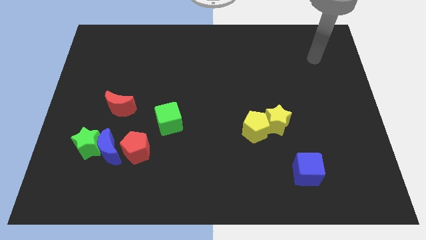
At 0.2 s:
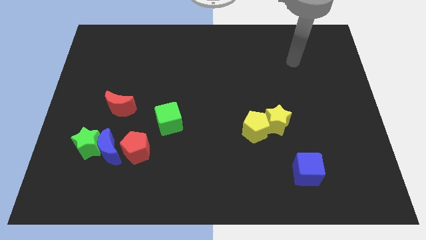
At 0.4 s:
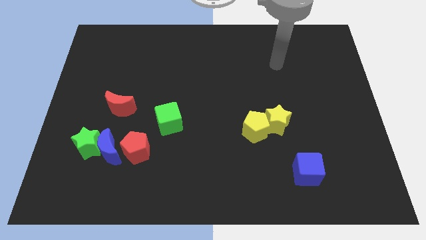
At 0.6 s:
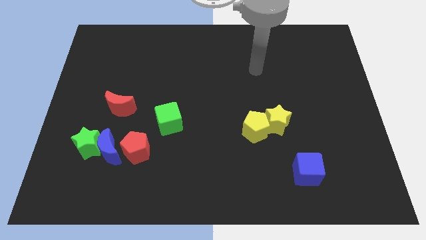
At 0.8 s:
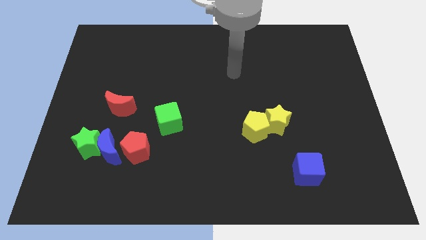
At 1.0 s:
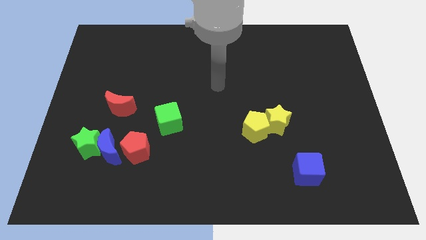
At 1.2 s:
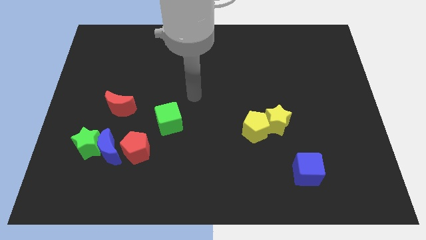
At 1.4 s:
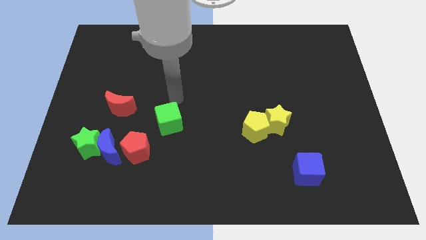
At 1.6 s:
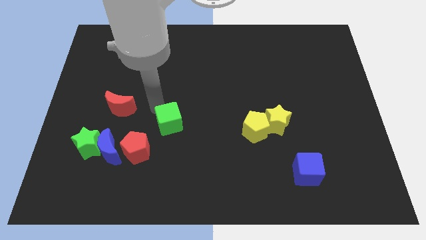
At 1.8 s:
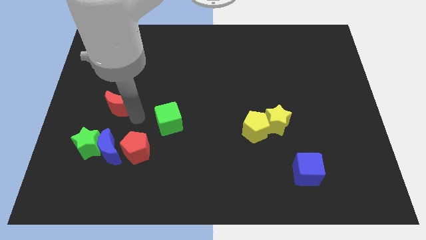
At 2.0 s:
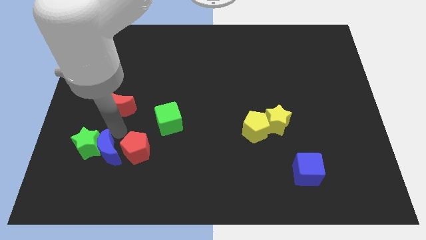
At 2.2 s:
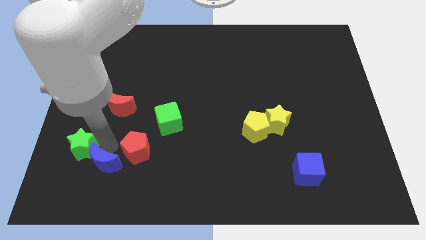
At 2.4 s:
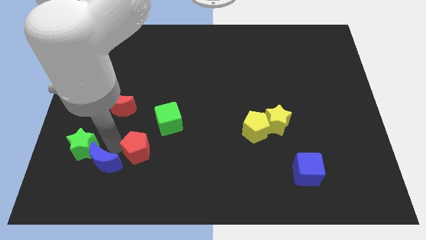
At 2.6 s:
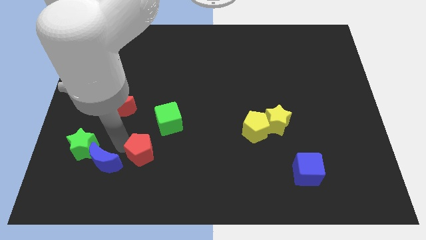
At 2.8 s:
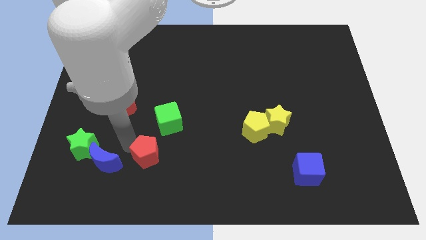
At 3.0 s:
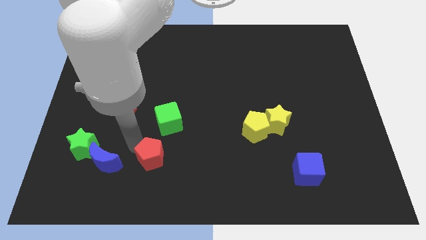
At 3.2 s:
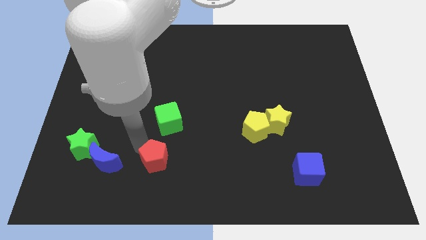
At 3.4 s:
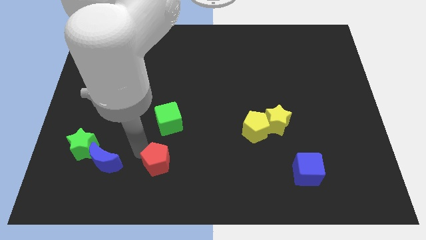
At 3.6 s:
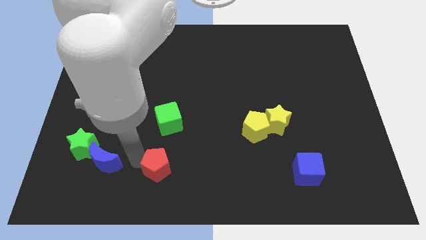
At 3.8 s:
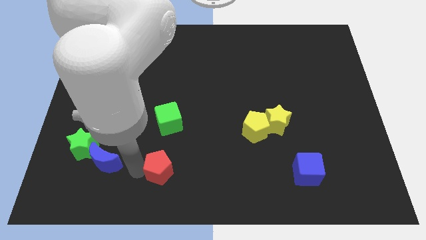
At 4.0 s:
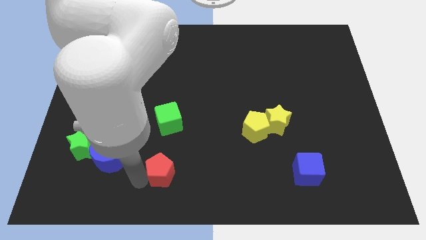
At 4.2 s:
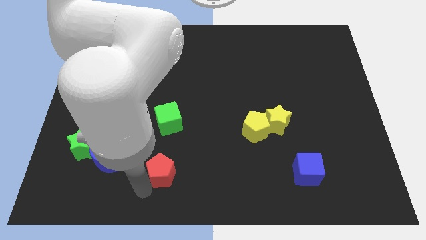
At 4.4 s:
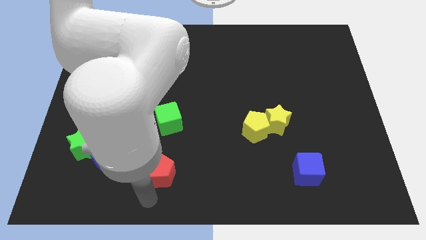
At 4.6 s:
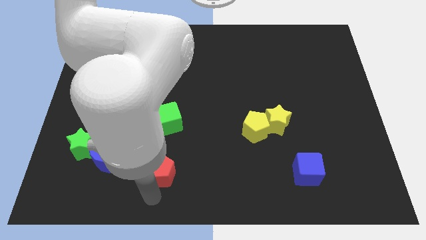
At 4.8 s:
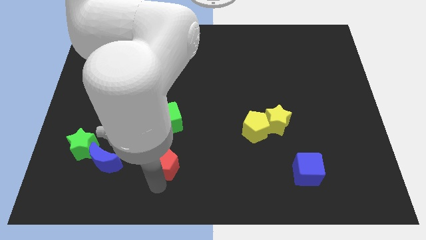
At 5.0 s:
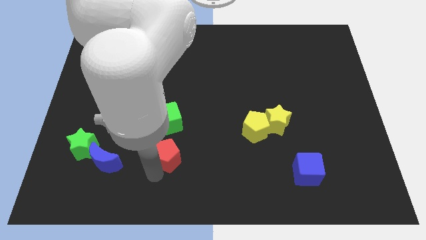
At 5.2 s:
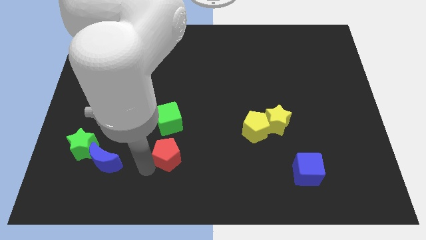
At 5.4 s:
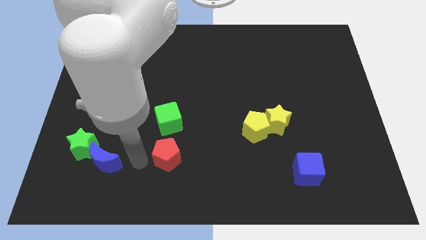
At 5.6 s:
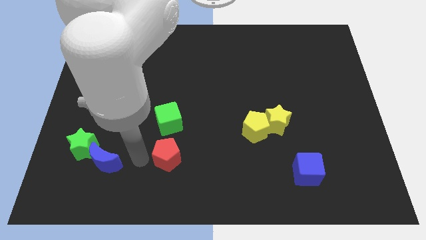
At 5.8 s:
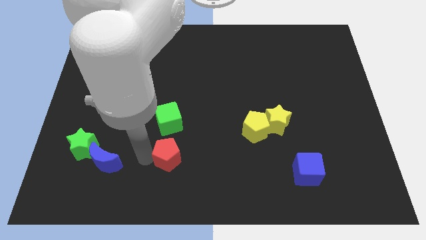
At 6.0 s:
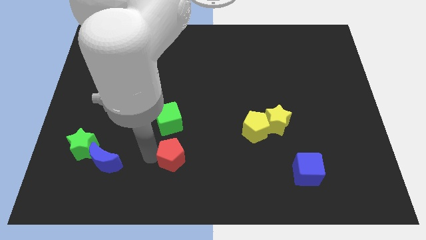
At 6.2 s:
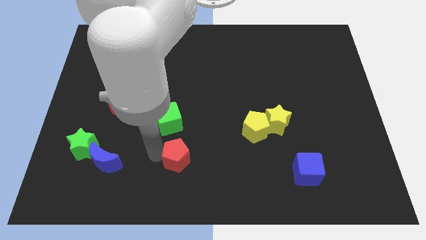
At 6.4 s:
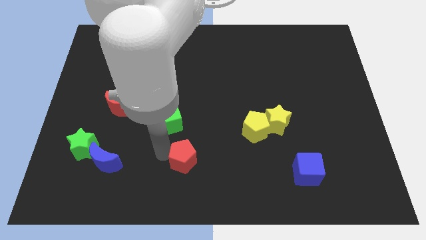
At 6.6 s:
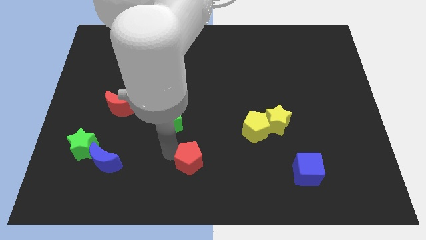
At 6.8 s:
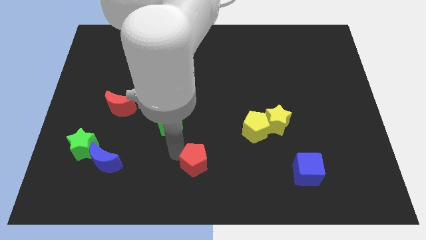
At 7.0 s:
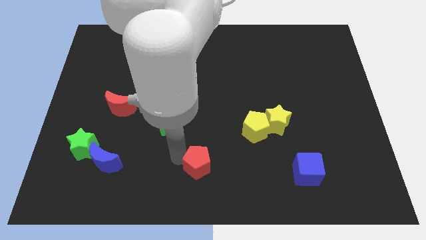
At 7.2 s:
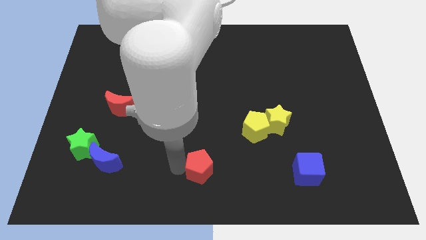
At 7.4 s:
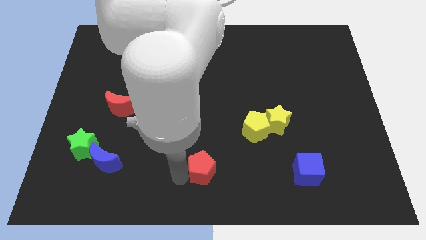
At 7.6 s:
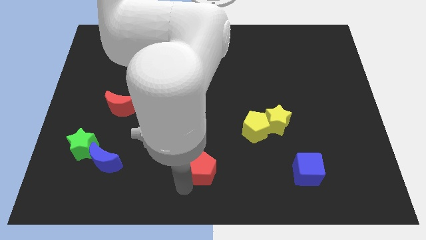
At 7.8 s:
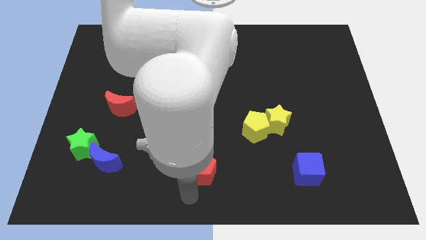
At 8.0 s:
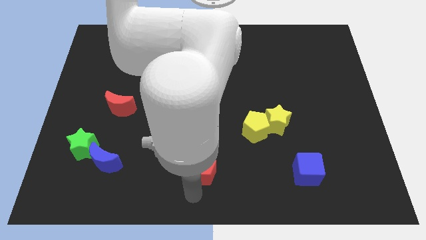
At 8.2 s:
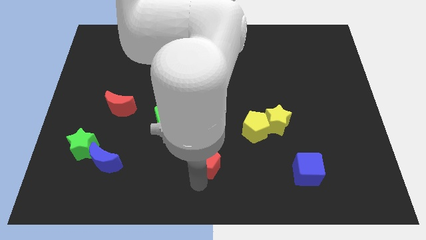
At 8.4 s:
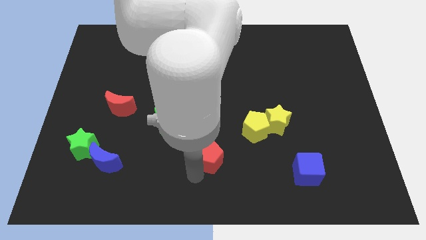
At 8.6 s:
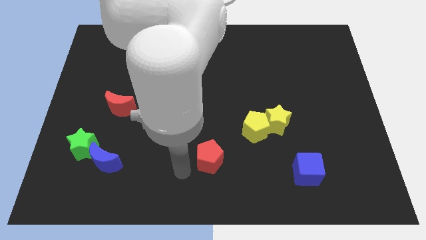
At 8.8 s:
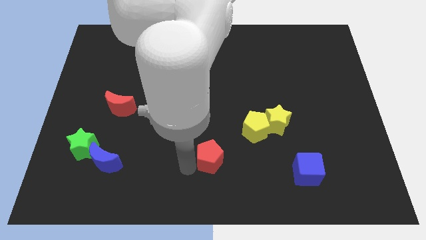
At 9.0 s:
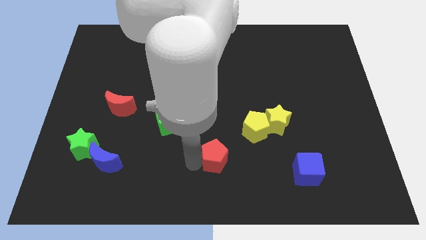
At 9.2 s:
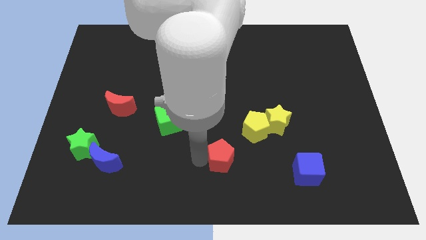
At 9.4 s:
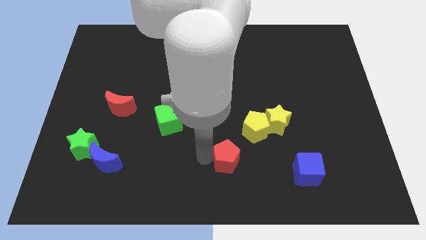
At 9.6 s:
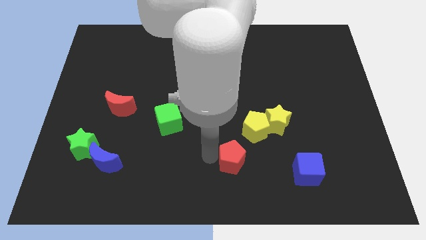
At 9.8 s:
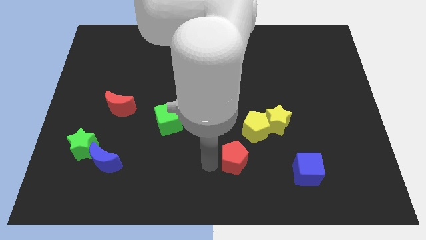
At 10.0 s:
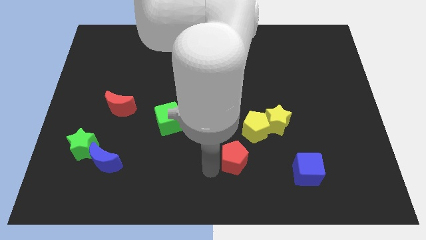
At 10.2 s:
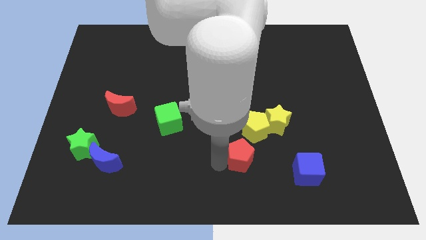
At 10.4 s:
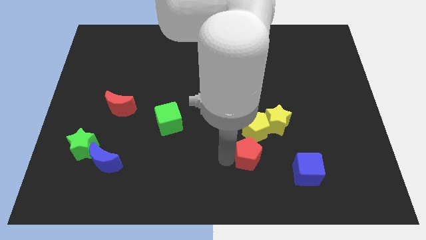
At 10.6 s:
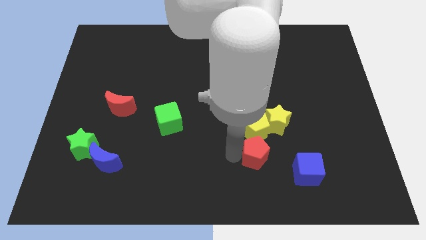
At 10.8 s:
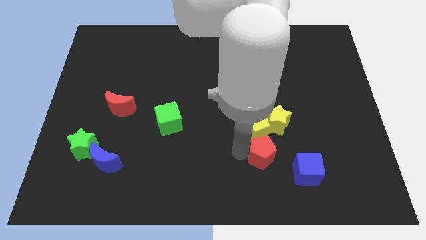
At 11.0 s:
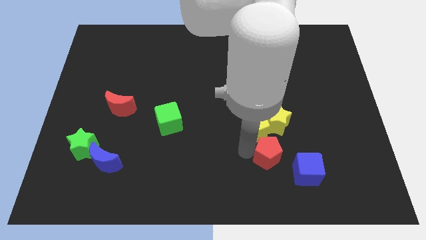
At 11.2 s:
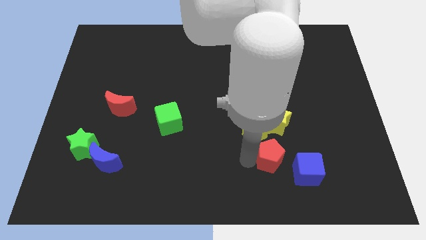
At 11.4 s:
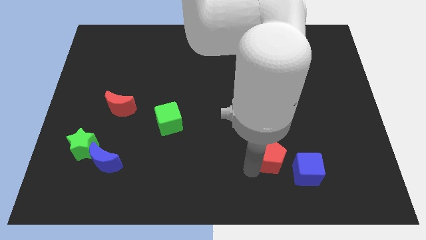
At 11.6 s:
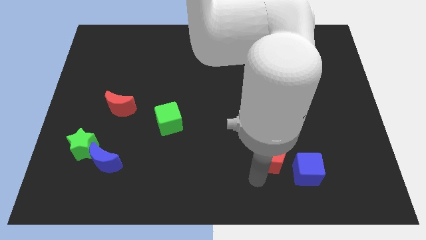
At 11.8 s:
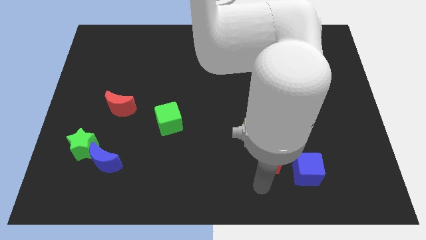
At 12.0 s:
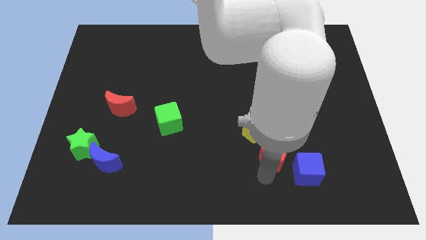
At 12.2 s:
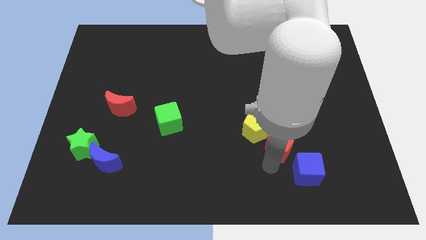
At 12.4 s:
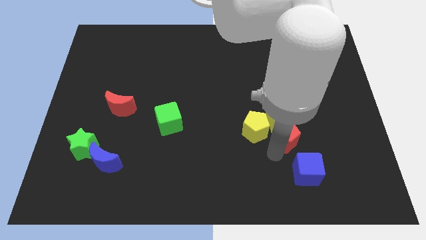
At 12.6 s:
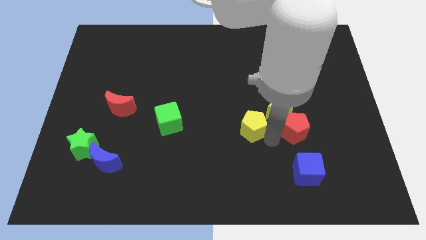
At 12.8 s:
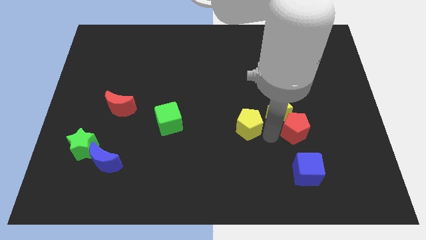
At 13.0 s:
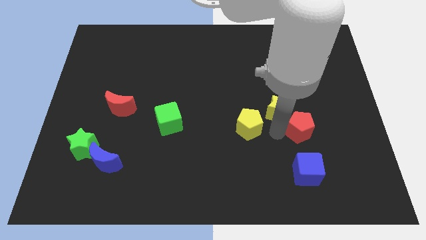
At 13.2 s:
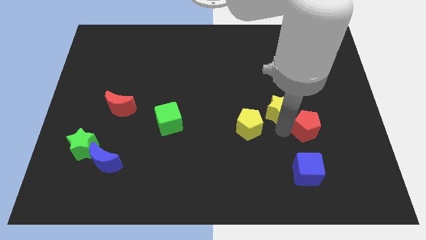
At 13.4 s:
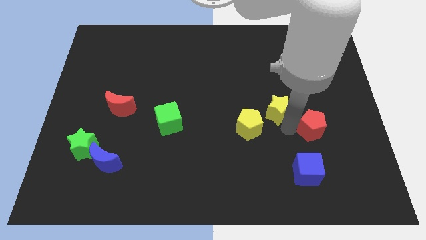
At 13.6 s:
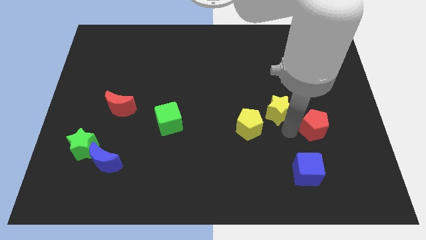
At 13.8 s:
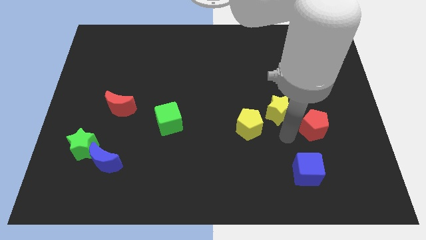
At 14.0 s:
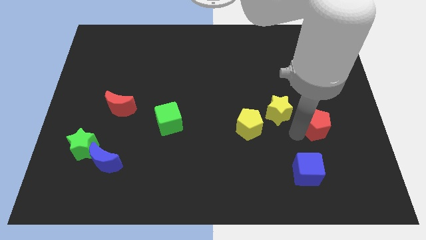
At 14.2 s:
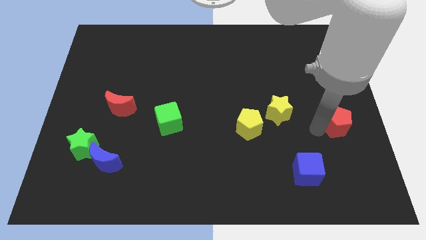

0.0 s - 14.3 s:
move the red pentagon to the center right
